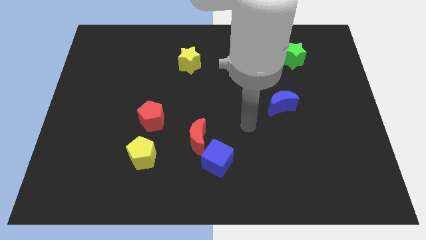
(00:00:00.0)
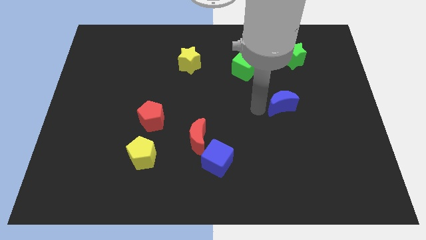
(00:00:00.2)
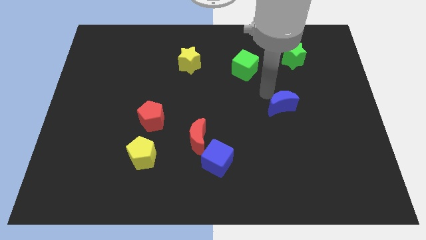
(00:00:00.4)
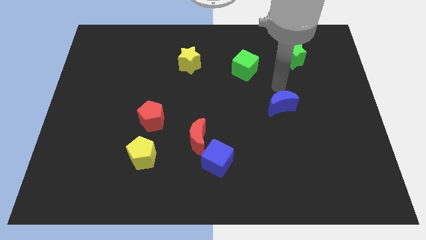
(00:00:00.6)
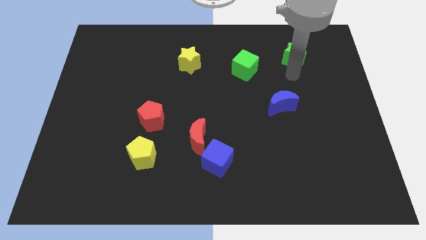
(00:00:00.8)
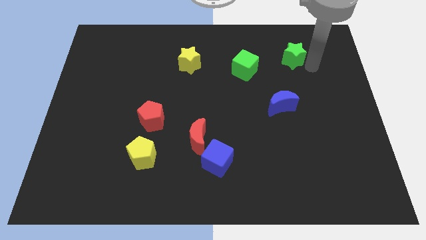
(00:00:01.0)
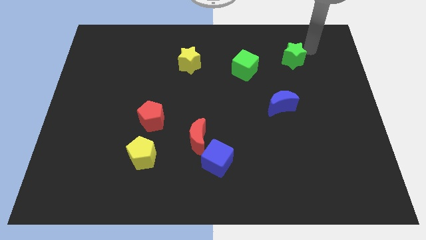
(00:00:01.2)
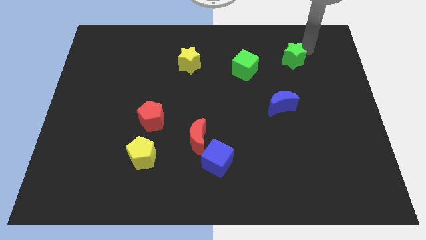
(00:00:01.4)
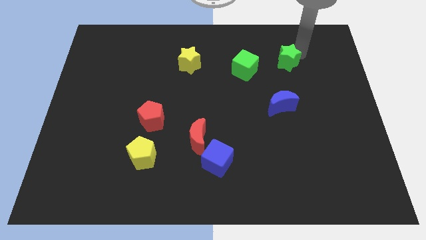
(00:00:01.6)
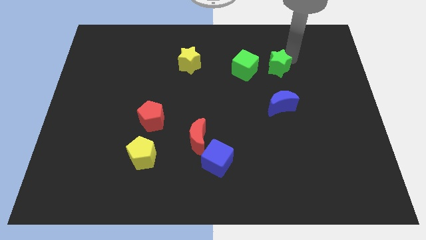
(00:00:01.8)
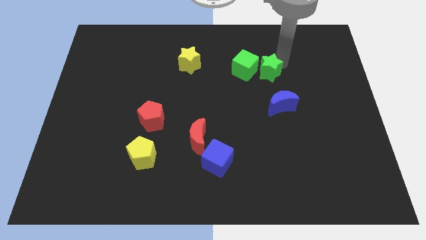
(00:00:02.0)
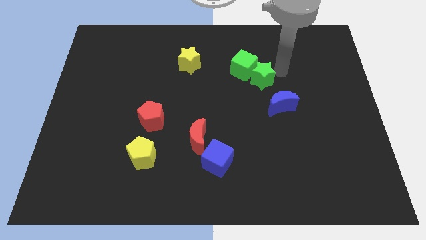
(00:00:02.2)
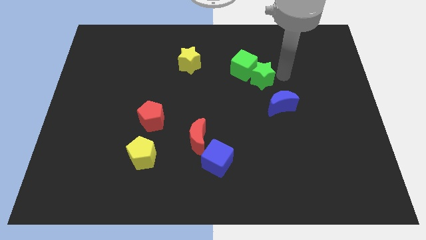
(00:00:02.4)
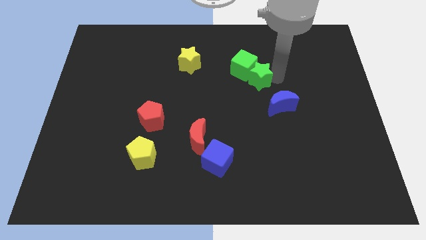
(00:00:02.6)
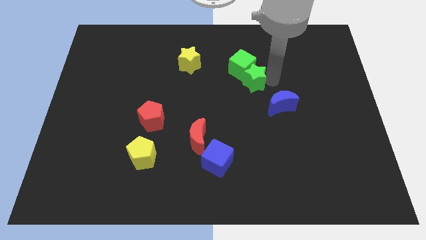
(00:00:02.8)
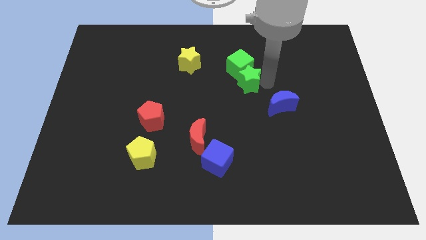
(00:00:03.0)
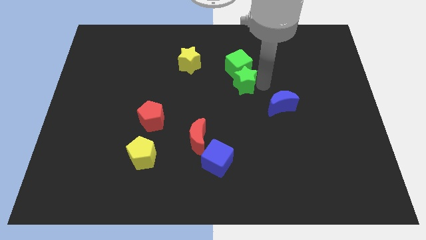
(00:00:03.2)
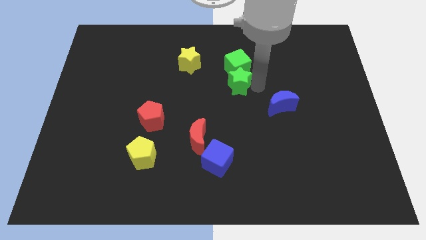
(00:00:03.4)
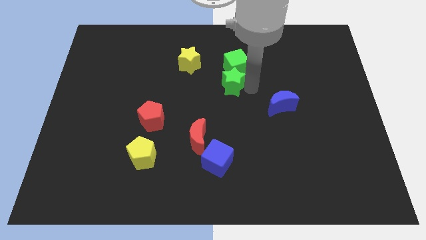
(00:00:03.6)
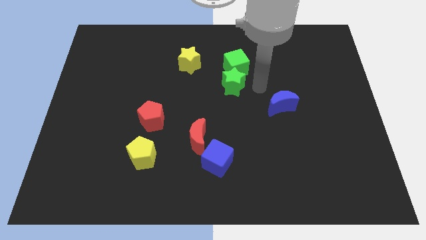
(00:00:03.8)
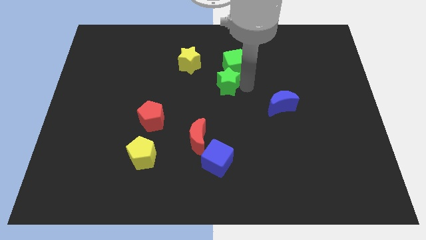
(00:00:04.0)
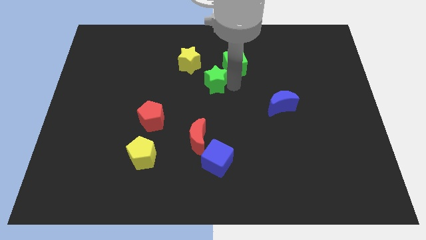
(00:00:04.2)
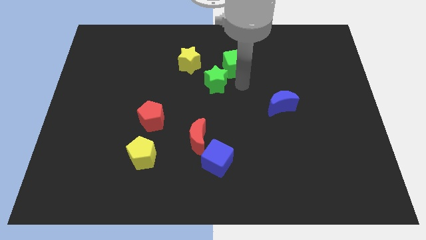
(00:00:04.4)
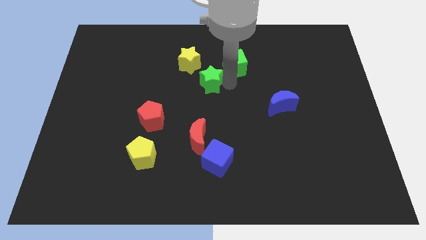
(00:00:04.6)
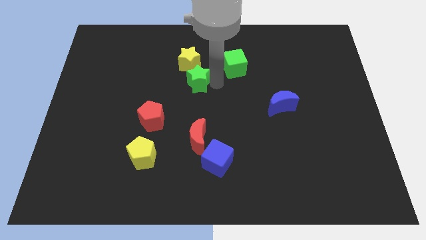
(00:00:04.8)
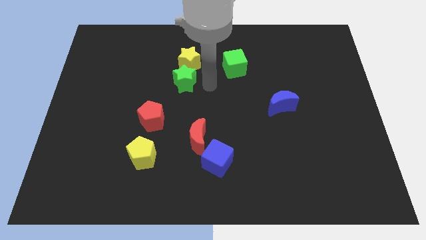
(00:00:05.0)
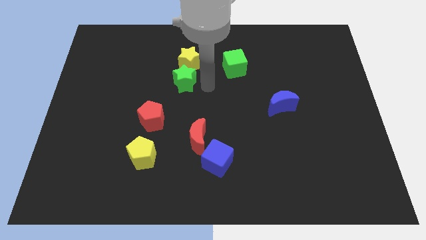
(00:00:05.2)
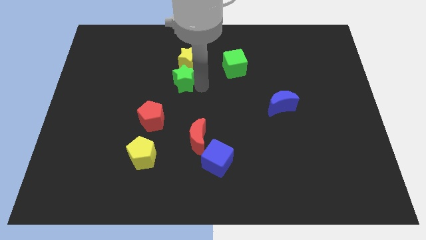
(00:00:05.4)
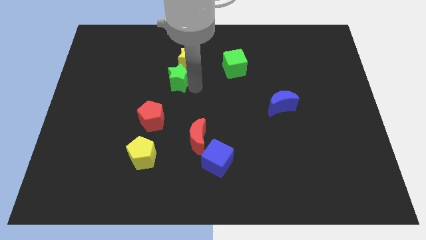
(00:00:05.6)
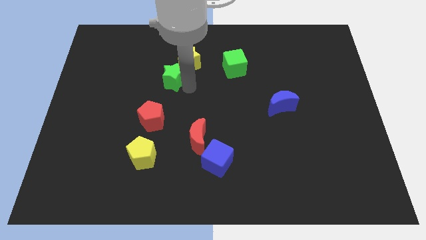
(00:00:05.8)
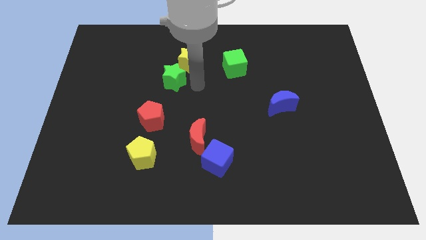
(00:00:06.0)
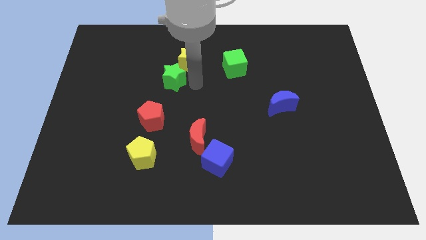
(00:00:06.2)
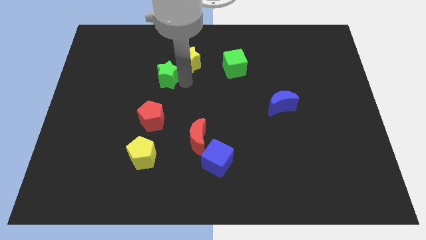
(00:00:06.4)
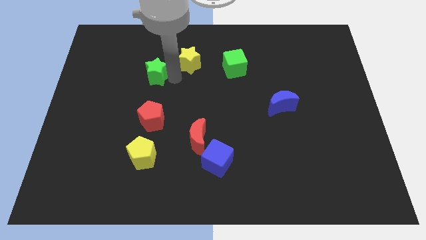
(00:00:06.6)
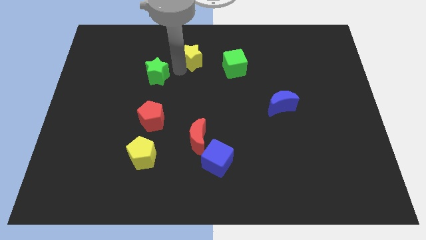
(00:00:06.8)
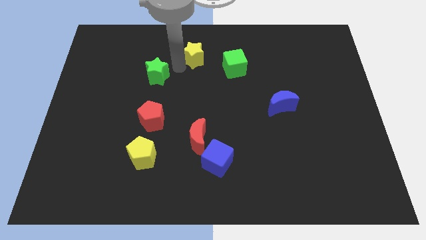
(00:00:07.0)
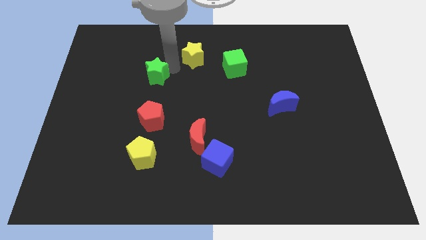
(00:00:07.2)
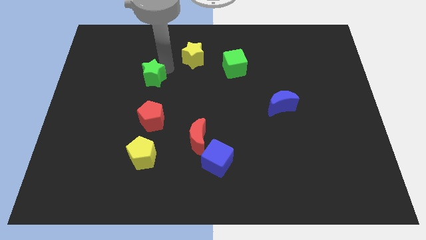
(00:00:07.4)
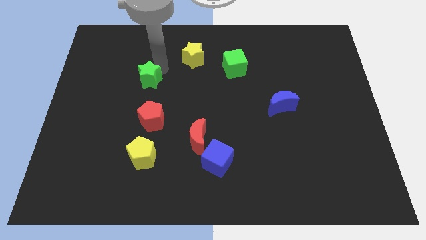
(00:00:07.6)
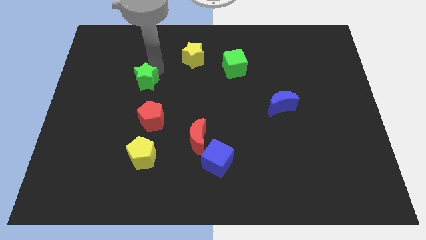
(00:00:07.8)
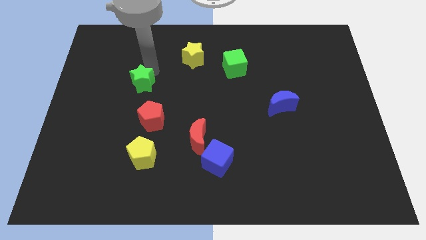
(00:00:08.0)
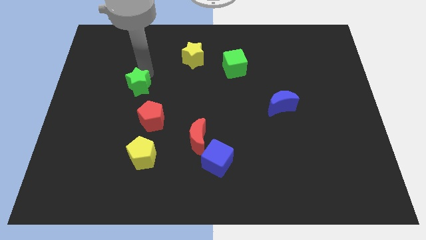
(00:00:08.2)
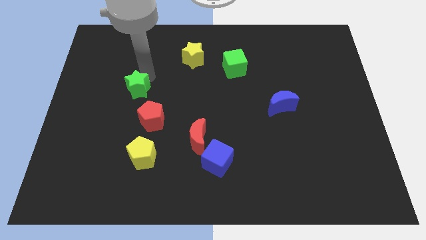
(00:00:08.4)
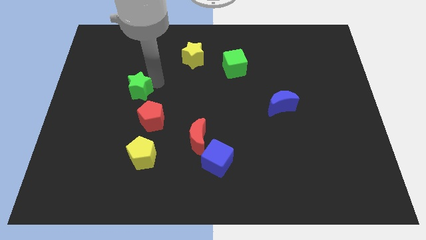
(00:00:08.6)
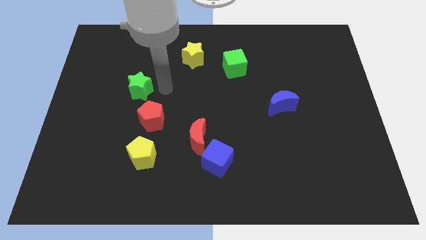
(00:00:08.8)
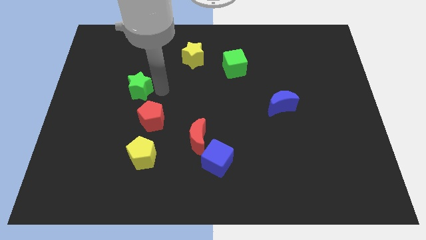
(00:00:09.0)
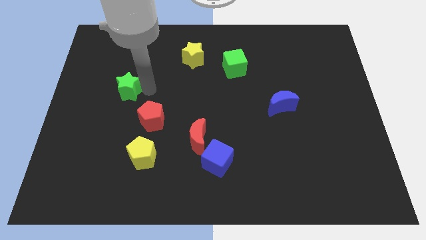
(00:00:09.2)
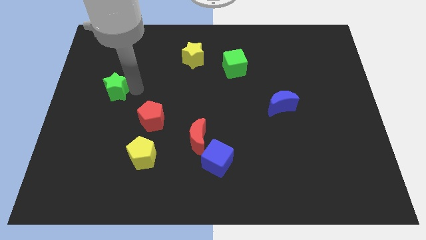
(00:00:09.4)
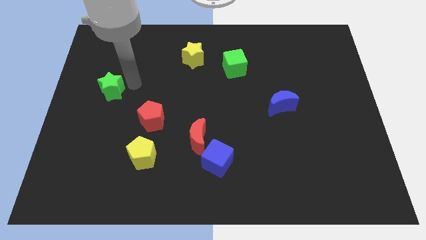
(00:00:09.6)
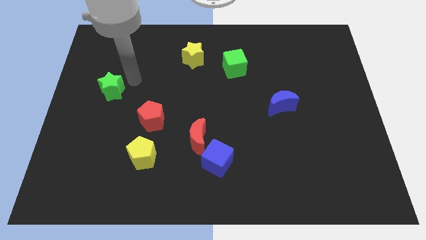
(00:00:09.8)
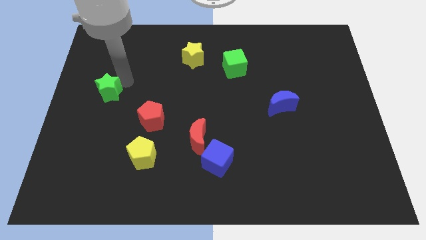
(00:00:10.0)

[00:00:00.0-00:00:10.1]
slide the green star to the center left

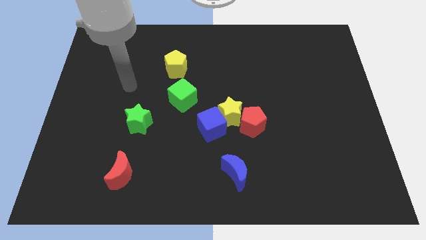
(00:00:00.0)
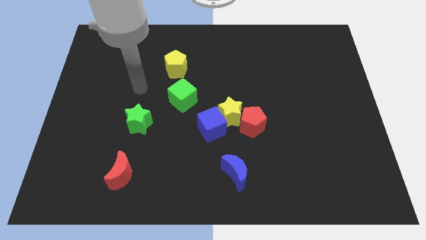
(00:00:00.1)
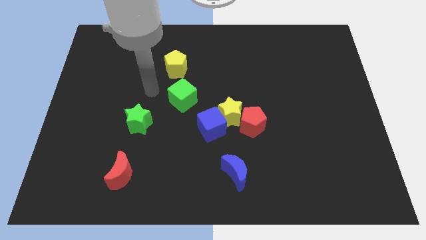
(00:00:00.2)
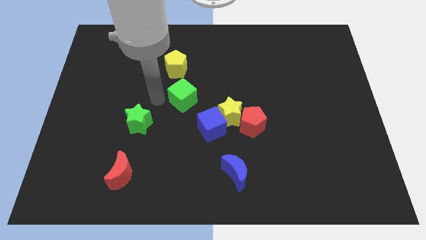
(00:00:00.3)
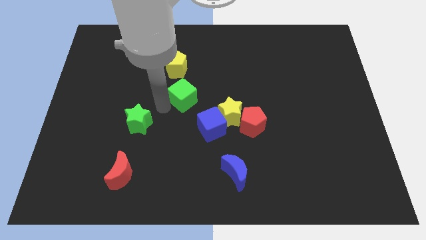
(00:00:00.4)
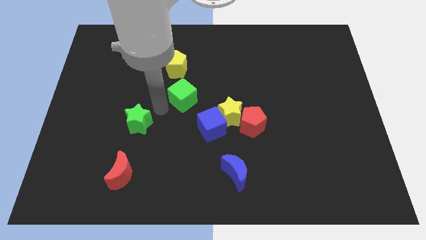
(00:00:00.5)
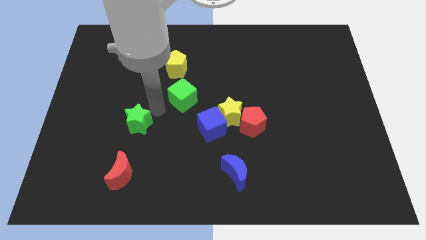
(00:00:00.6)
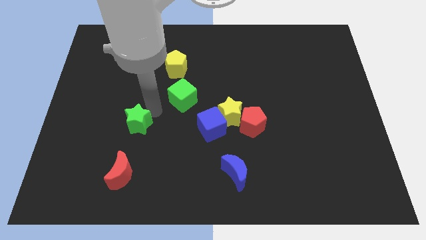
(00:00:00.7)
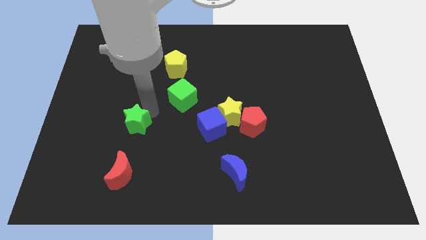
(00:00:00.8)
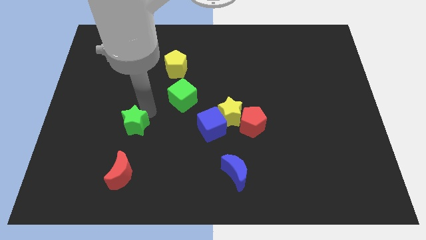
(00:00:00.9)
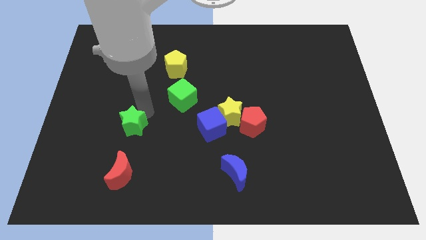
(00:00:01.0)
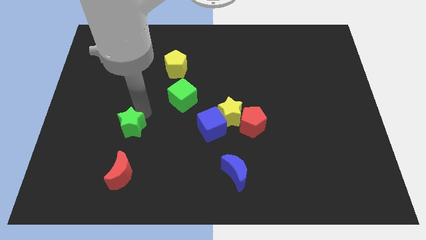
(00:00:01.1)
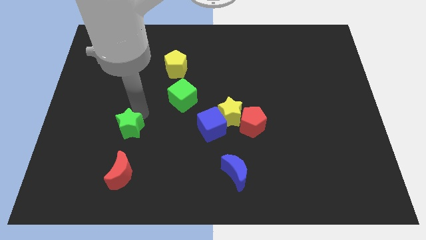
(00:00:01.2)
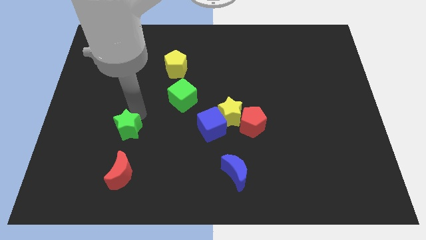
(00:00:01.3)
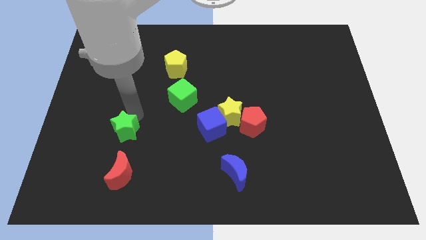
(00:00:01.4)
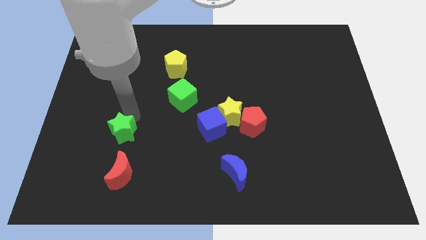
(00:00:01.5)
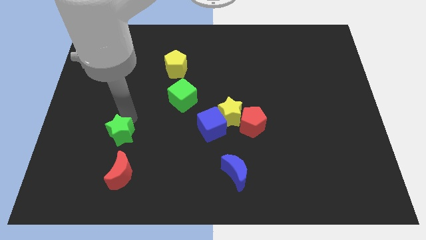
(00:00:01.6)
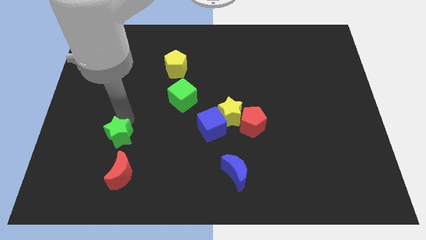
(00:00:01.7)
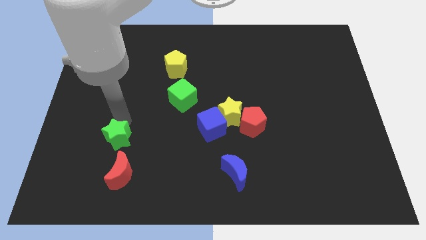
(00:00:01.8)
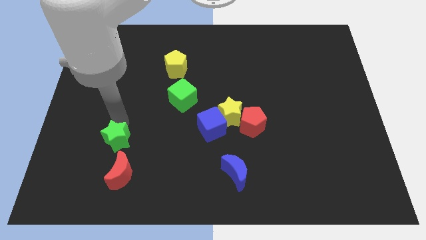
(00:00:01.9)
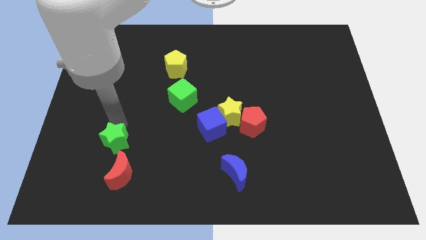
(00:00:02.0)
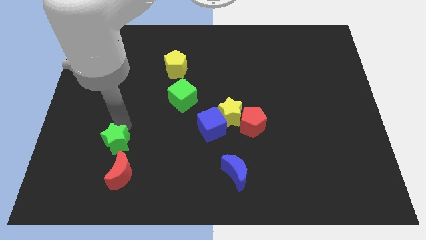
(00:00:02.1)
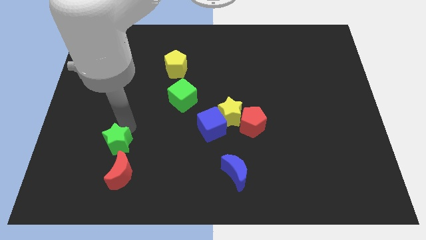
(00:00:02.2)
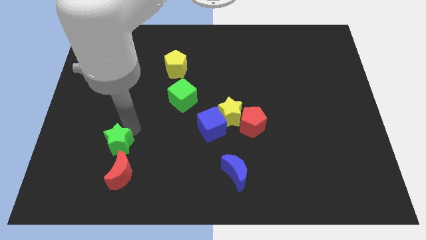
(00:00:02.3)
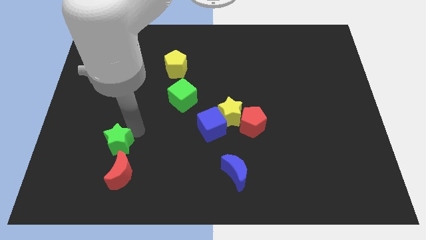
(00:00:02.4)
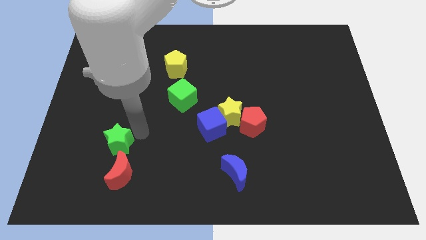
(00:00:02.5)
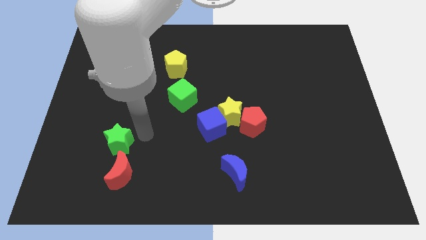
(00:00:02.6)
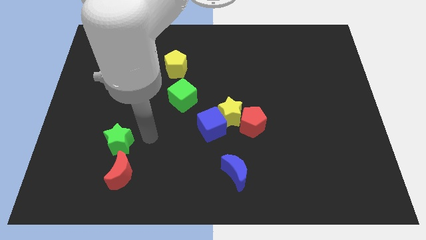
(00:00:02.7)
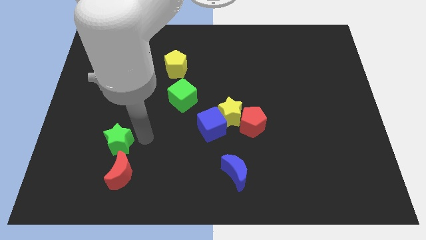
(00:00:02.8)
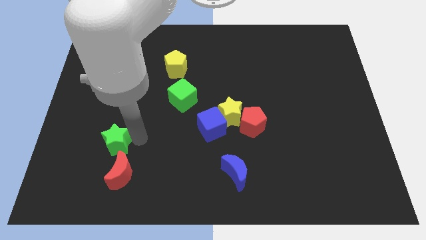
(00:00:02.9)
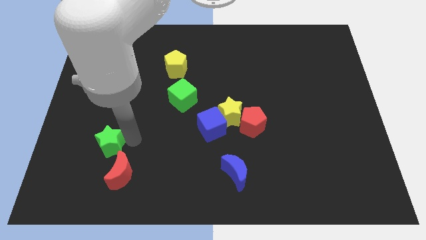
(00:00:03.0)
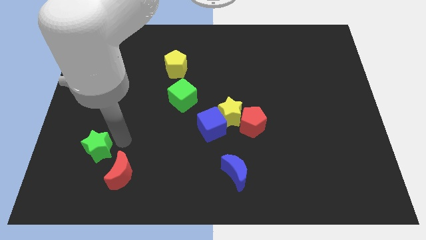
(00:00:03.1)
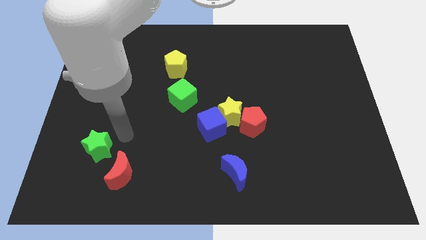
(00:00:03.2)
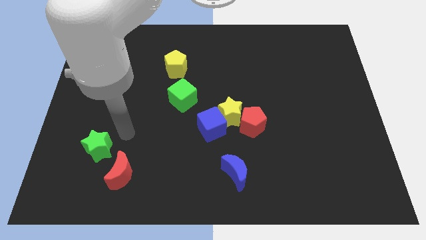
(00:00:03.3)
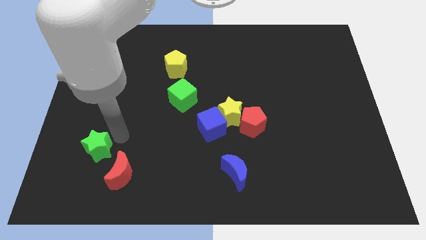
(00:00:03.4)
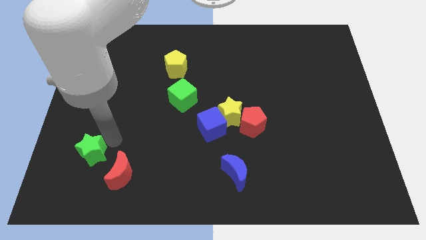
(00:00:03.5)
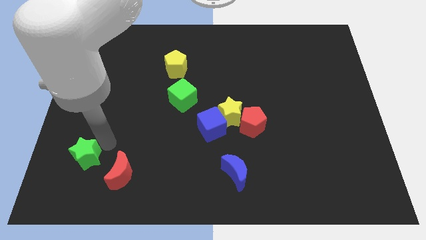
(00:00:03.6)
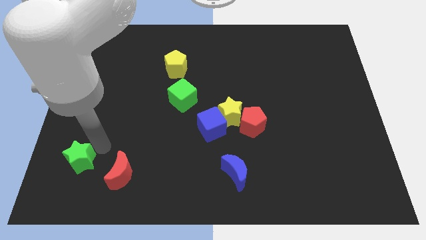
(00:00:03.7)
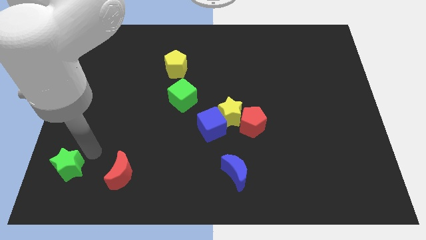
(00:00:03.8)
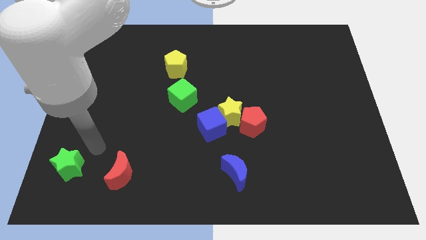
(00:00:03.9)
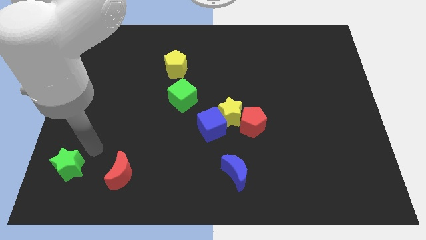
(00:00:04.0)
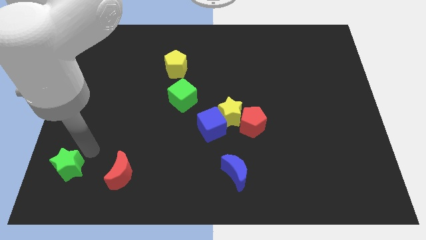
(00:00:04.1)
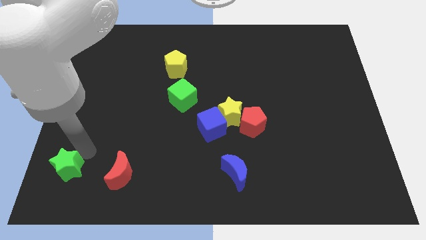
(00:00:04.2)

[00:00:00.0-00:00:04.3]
move the green star to the lower left corner
